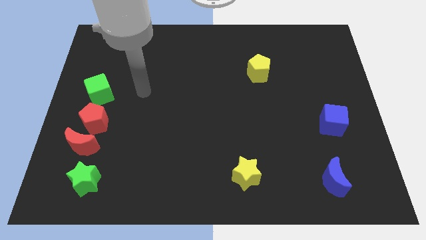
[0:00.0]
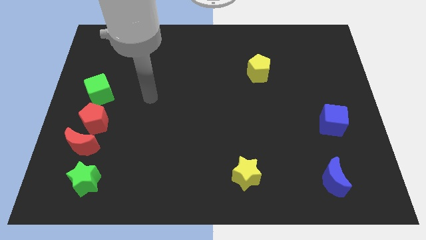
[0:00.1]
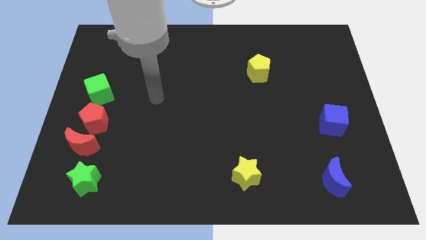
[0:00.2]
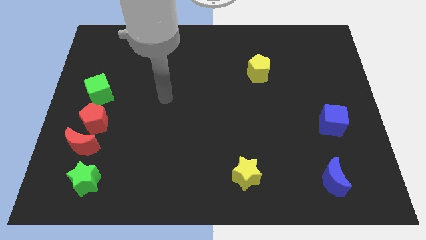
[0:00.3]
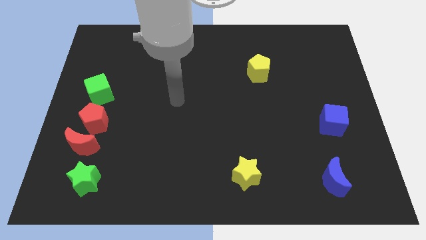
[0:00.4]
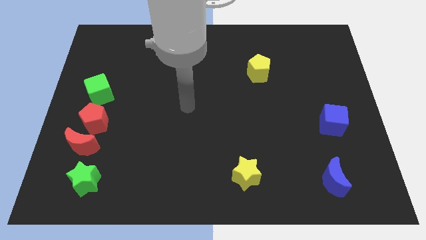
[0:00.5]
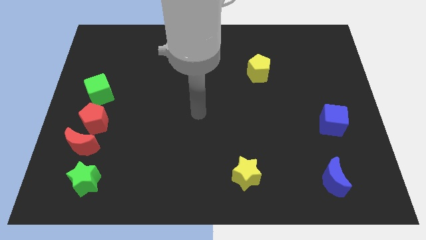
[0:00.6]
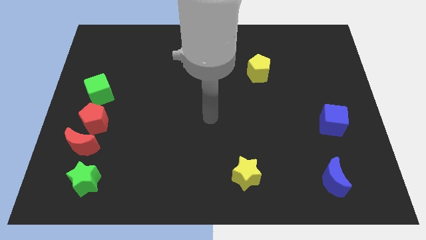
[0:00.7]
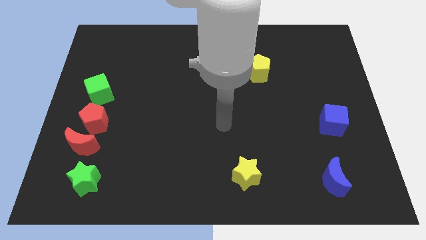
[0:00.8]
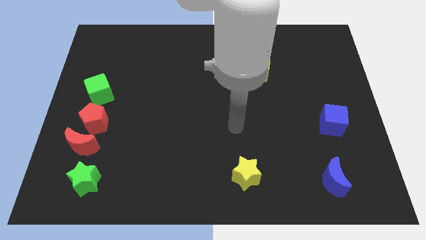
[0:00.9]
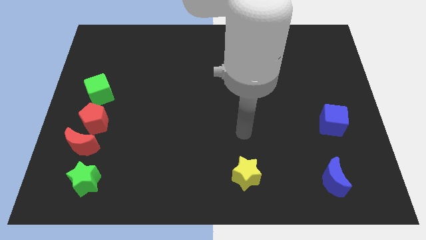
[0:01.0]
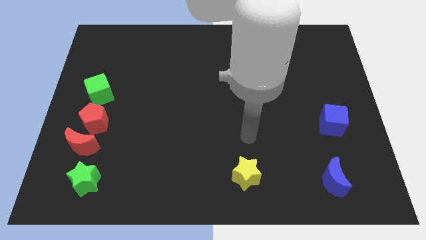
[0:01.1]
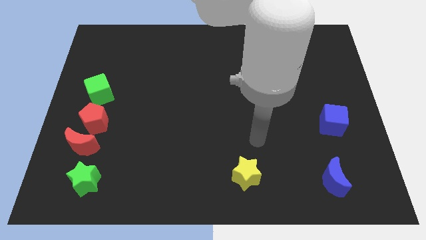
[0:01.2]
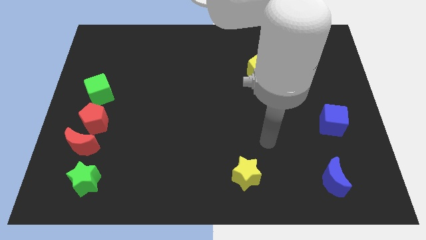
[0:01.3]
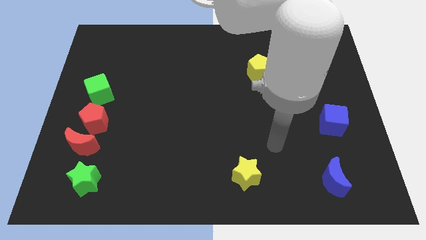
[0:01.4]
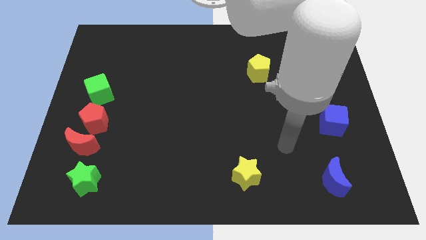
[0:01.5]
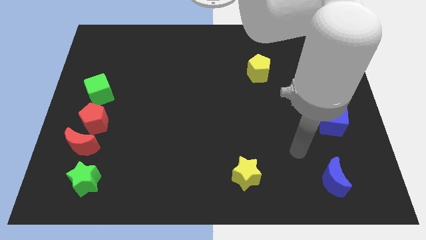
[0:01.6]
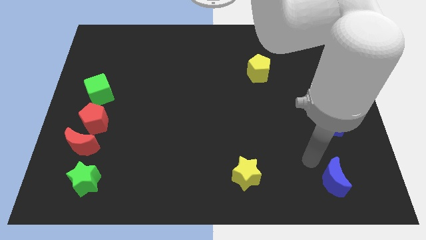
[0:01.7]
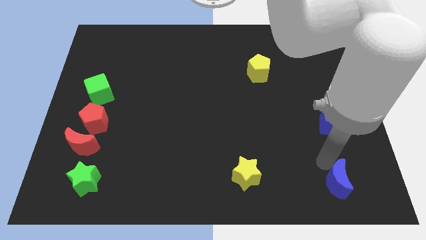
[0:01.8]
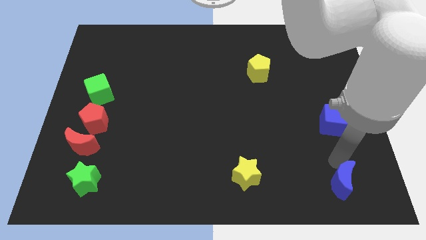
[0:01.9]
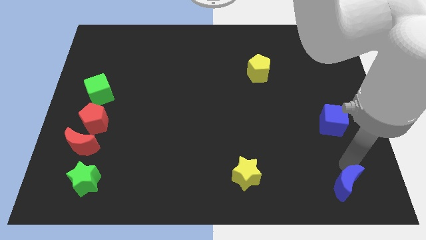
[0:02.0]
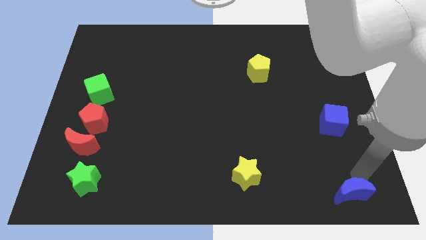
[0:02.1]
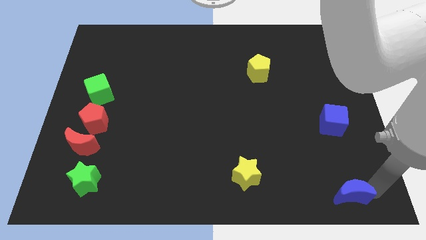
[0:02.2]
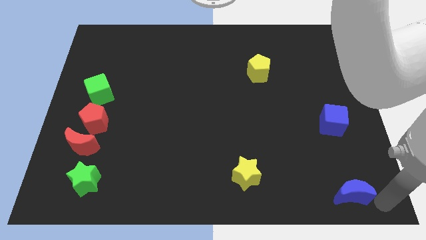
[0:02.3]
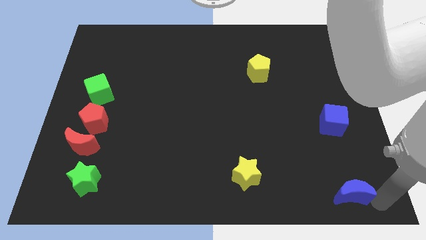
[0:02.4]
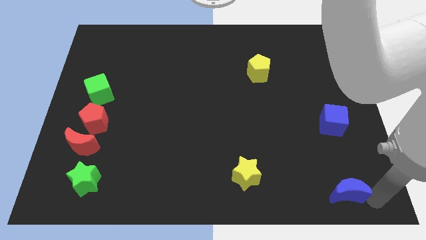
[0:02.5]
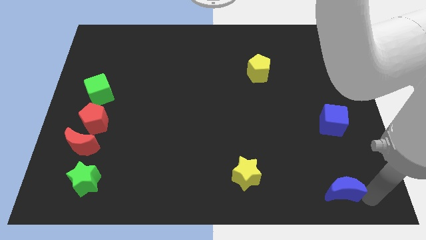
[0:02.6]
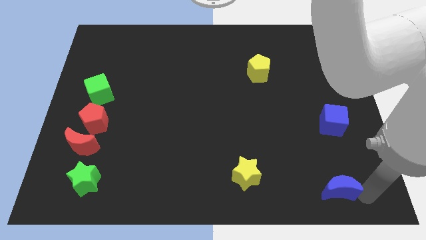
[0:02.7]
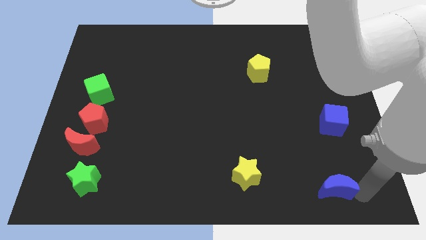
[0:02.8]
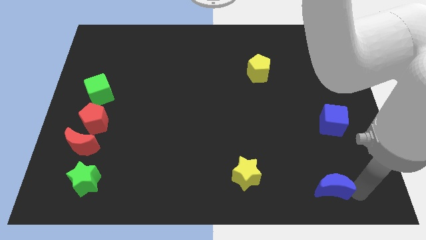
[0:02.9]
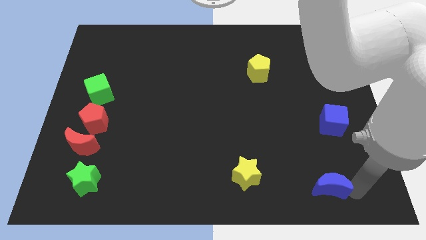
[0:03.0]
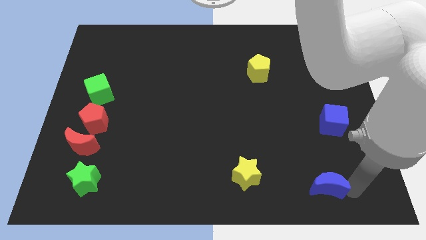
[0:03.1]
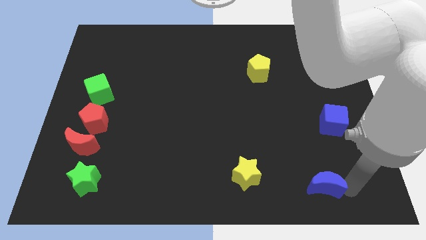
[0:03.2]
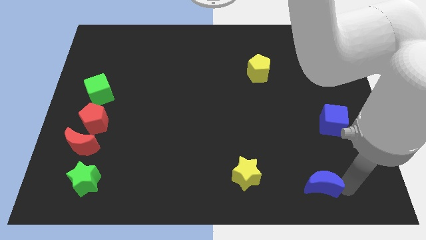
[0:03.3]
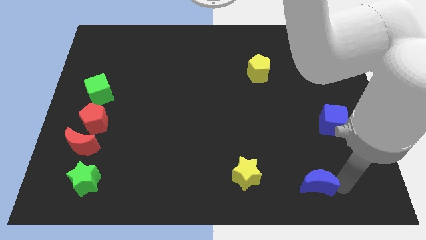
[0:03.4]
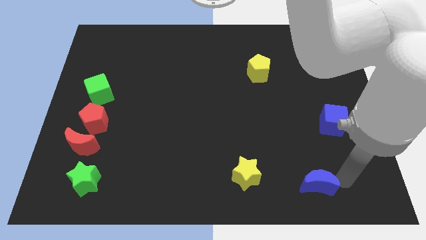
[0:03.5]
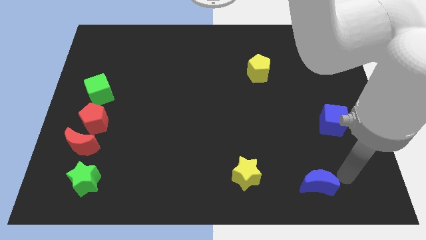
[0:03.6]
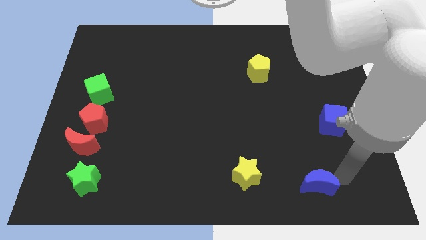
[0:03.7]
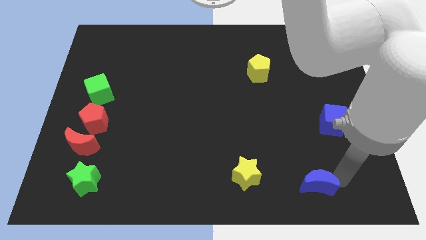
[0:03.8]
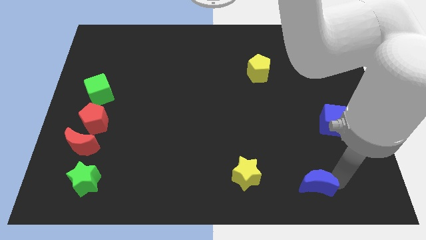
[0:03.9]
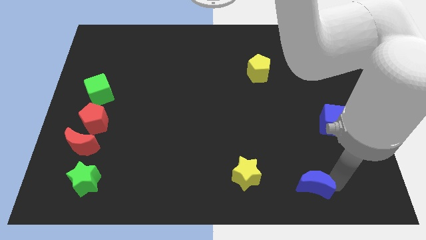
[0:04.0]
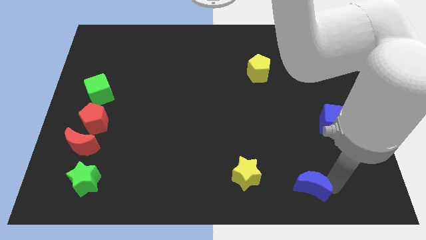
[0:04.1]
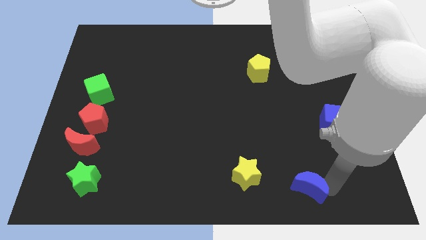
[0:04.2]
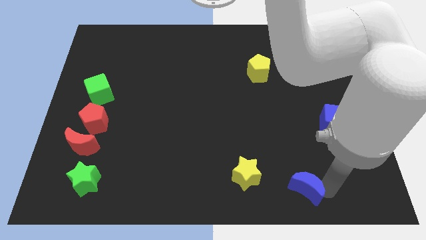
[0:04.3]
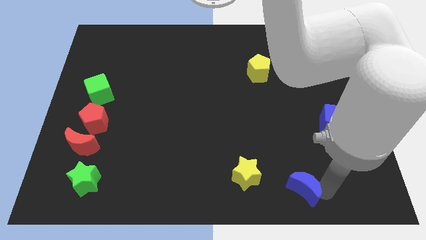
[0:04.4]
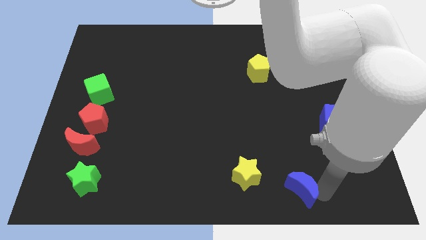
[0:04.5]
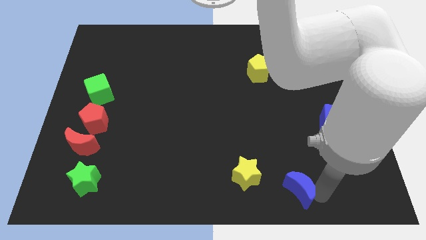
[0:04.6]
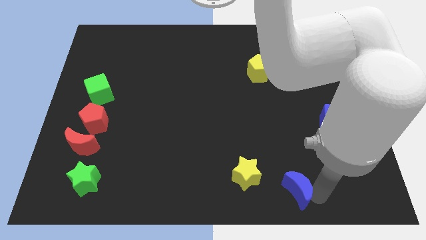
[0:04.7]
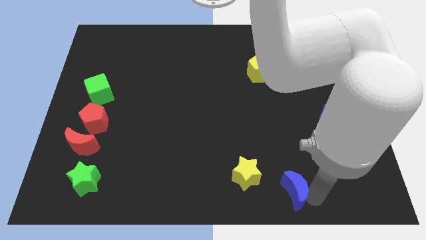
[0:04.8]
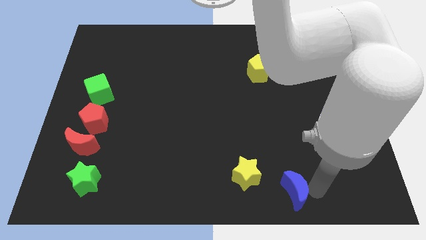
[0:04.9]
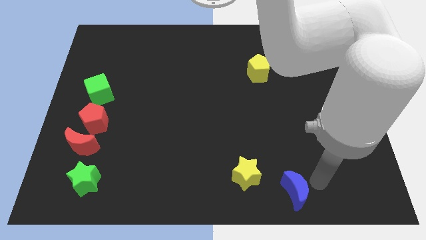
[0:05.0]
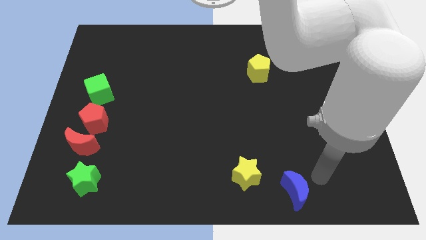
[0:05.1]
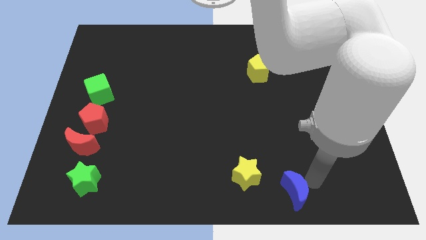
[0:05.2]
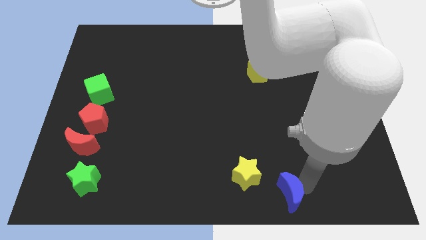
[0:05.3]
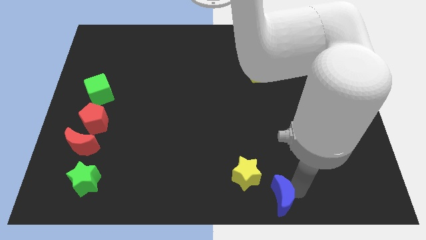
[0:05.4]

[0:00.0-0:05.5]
put the blue moon to the bottom side

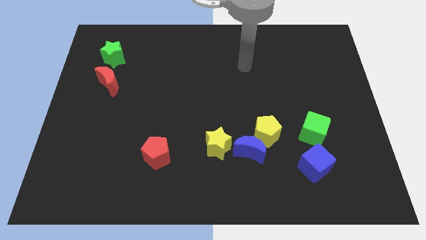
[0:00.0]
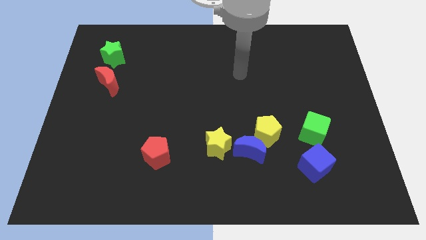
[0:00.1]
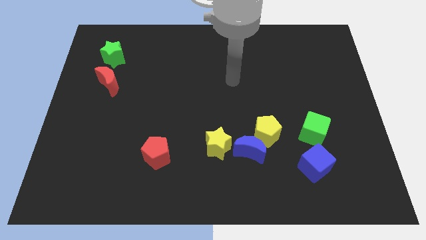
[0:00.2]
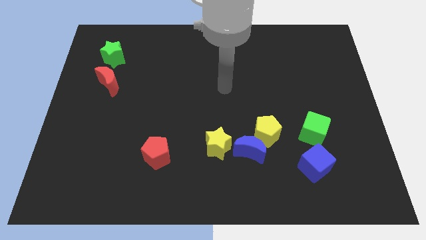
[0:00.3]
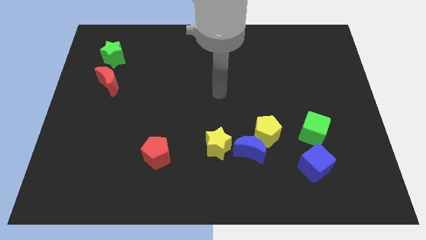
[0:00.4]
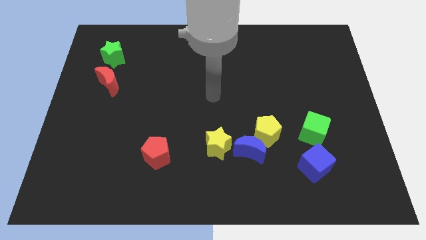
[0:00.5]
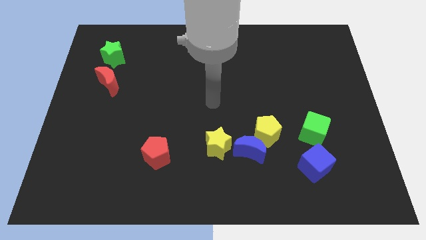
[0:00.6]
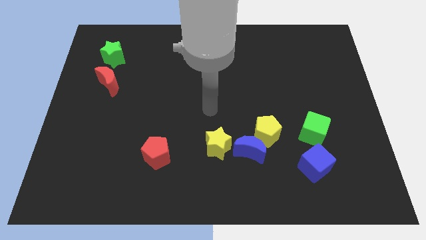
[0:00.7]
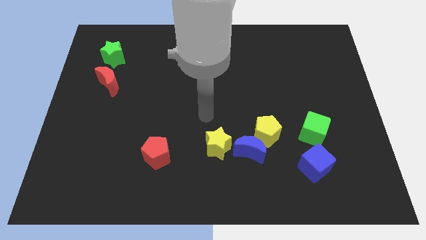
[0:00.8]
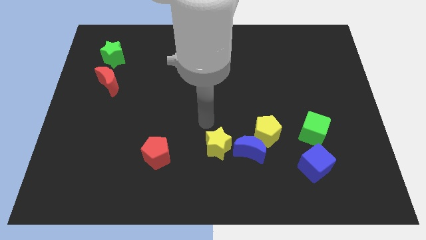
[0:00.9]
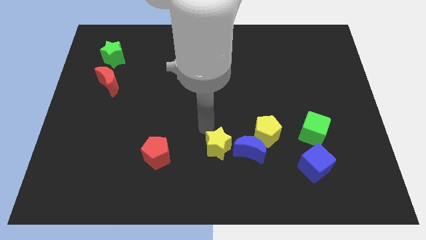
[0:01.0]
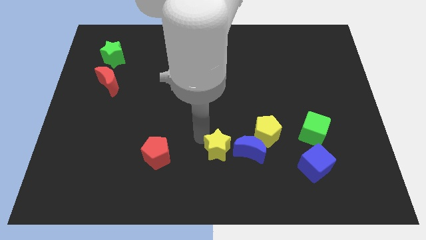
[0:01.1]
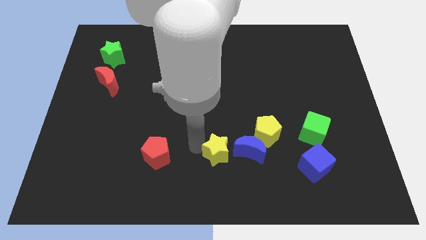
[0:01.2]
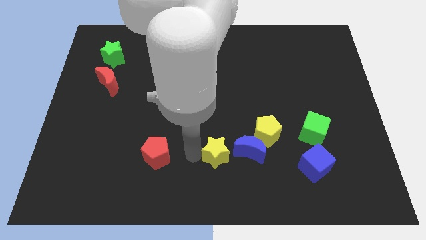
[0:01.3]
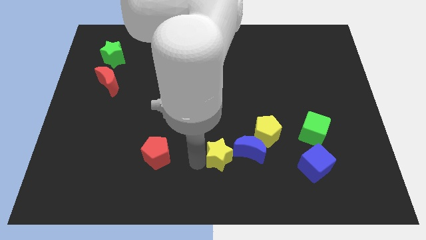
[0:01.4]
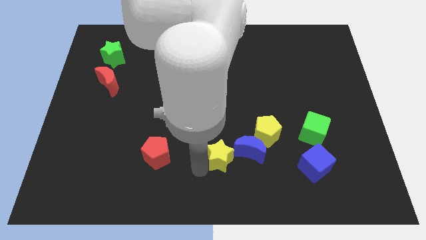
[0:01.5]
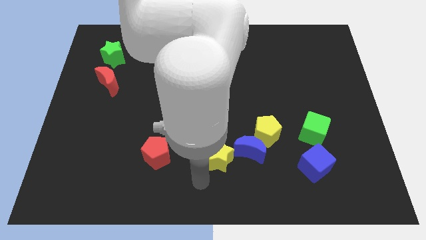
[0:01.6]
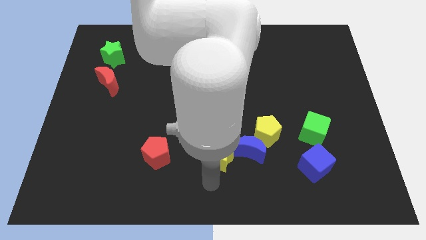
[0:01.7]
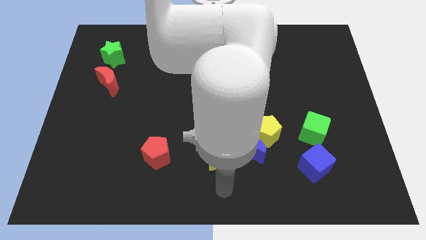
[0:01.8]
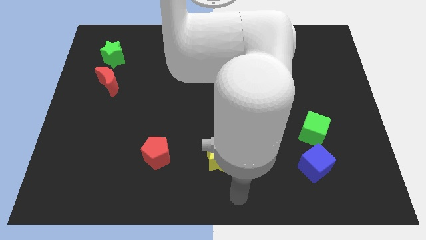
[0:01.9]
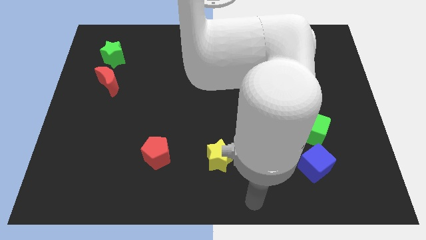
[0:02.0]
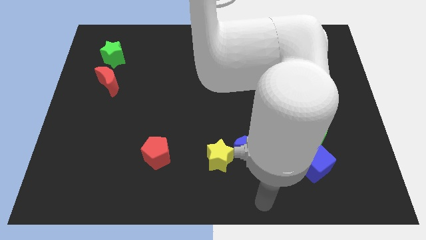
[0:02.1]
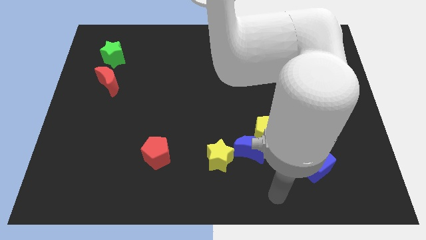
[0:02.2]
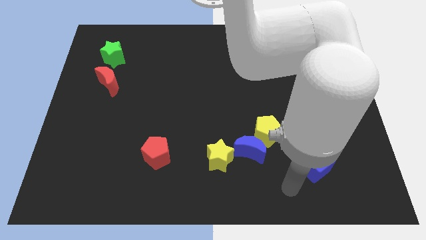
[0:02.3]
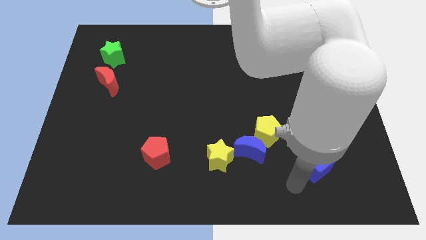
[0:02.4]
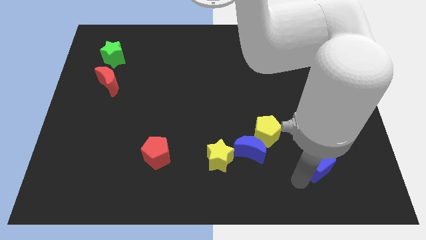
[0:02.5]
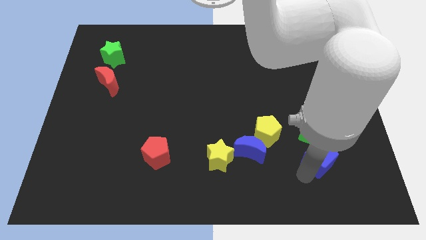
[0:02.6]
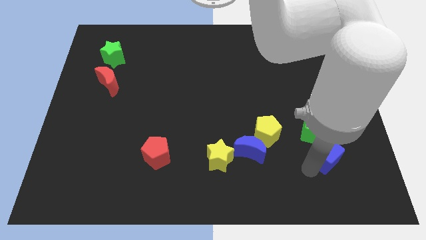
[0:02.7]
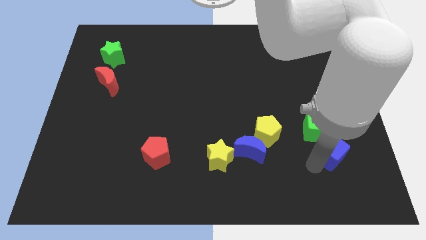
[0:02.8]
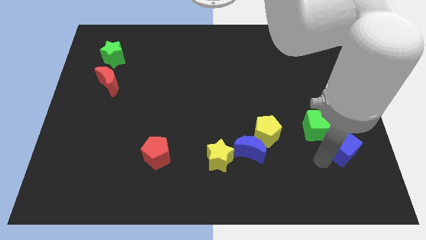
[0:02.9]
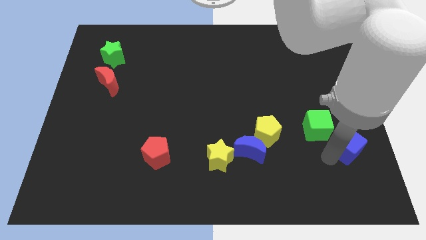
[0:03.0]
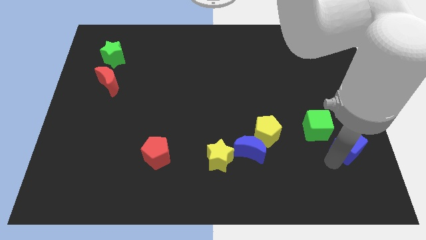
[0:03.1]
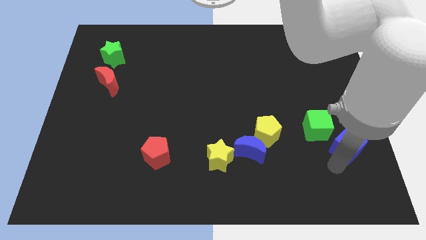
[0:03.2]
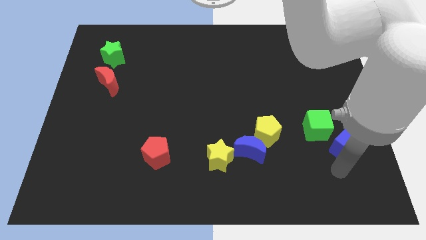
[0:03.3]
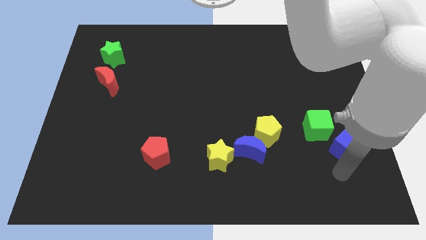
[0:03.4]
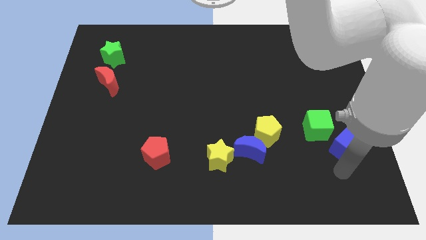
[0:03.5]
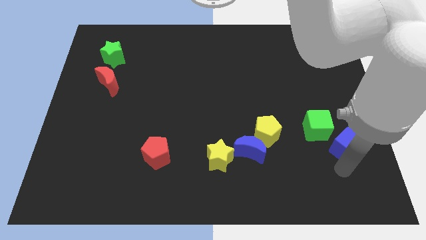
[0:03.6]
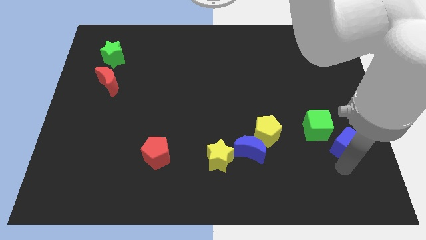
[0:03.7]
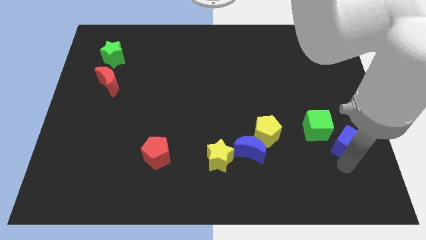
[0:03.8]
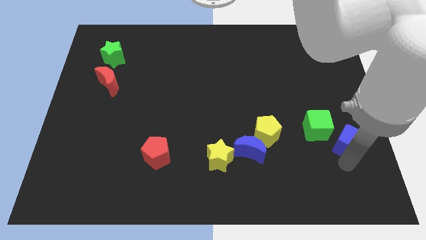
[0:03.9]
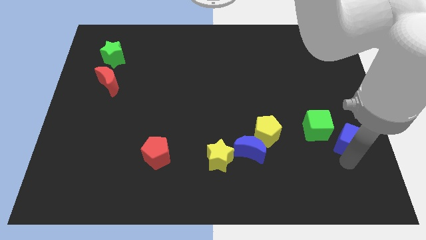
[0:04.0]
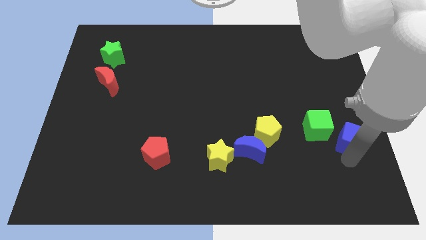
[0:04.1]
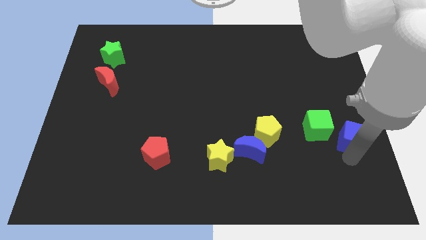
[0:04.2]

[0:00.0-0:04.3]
move the blue cube to the right side of the board
